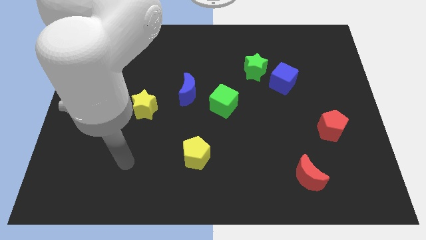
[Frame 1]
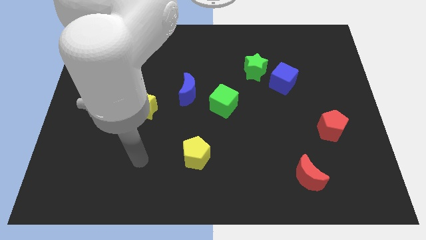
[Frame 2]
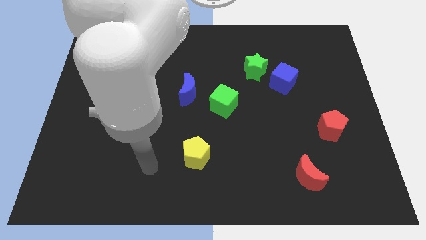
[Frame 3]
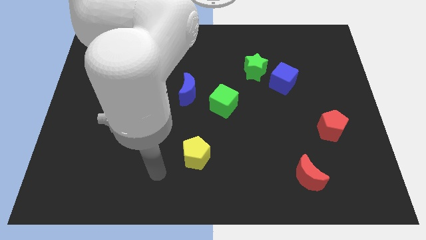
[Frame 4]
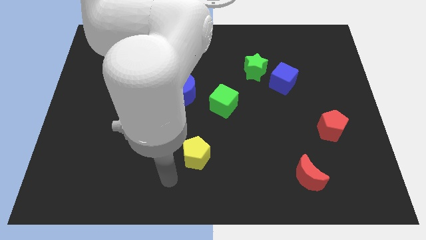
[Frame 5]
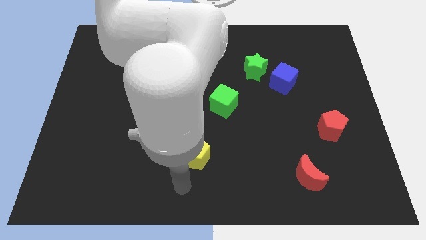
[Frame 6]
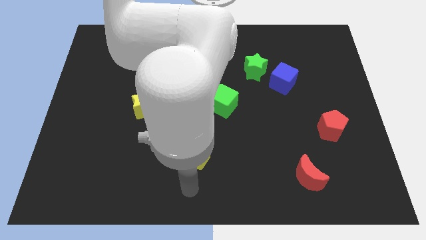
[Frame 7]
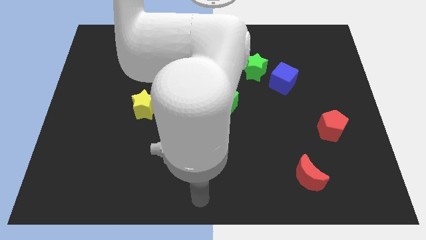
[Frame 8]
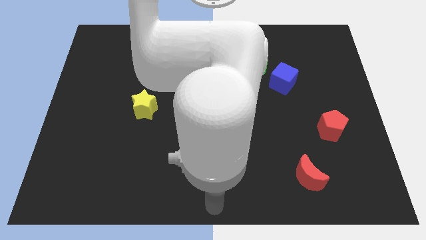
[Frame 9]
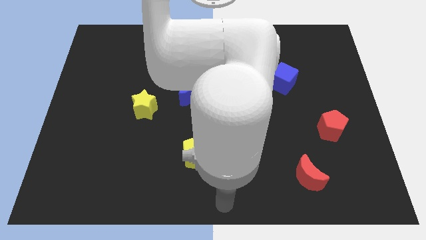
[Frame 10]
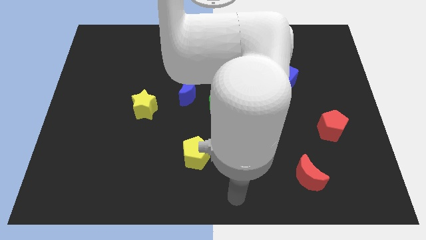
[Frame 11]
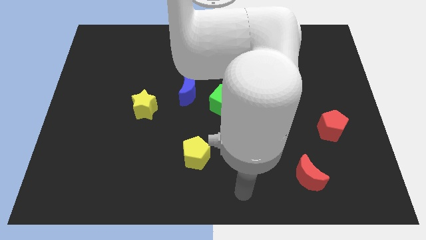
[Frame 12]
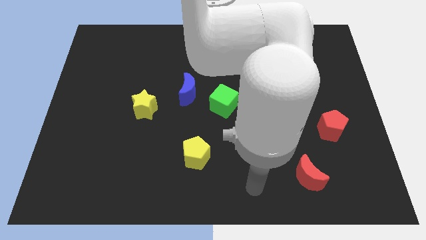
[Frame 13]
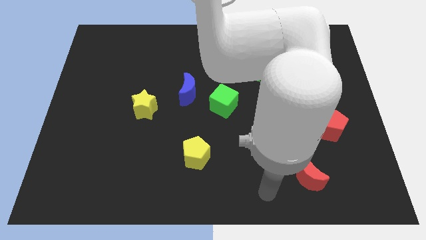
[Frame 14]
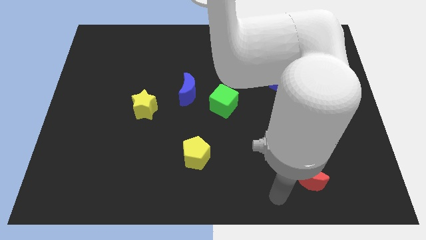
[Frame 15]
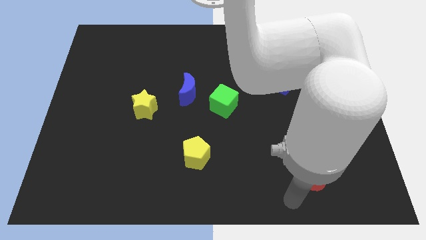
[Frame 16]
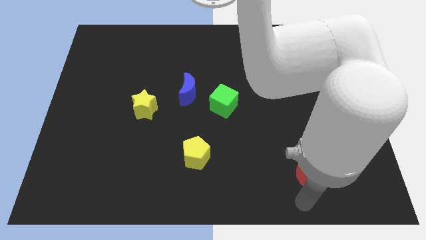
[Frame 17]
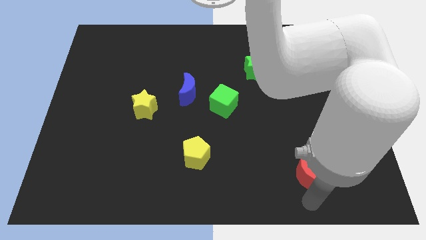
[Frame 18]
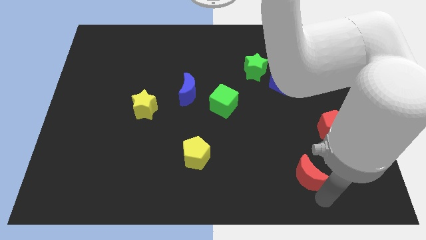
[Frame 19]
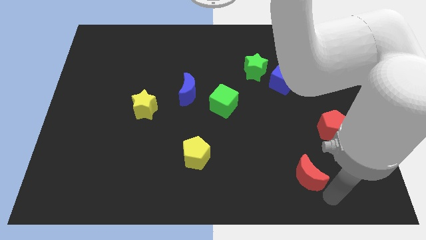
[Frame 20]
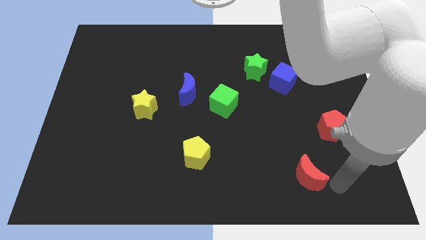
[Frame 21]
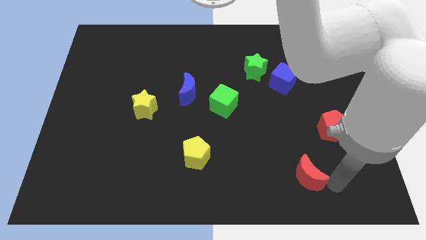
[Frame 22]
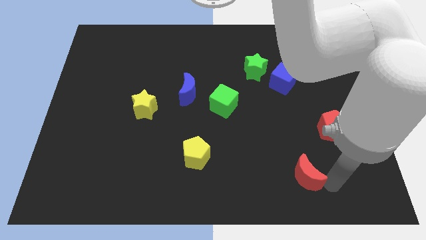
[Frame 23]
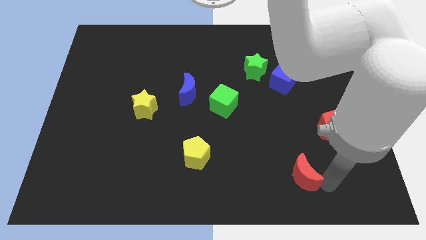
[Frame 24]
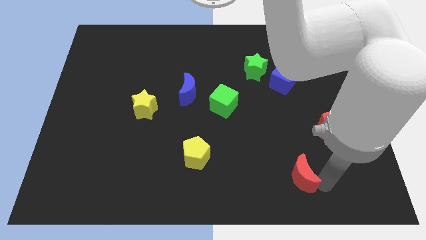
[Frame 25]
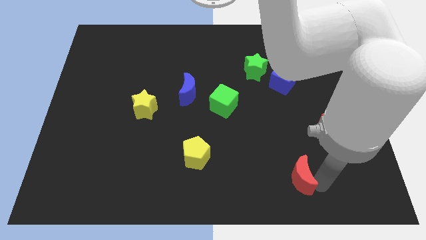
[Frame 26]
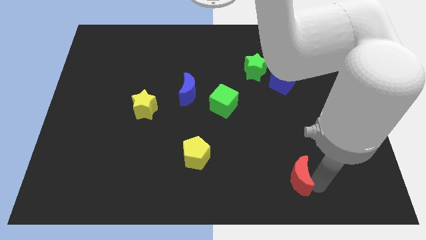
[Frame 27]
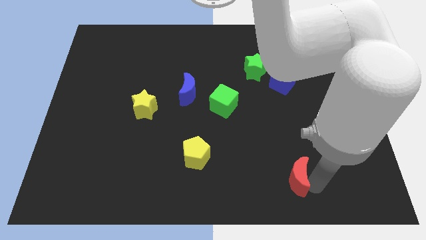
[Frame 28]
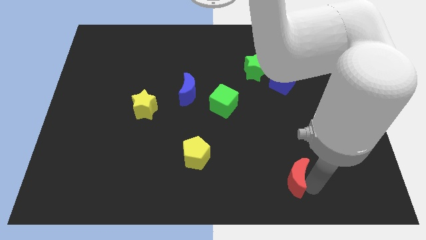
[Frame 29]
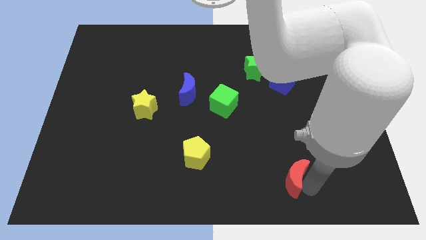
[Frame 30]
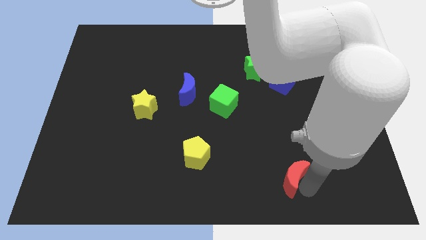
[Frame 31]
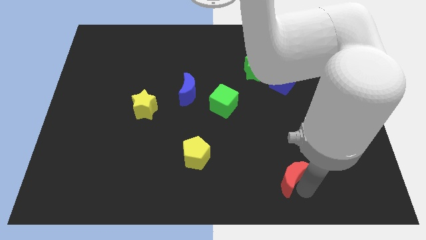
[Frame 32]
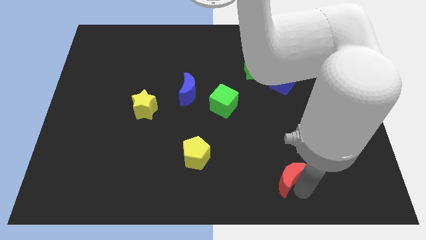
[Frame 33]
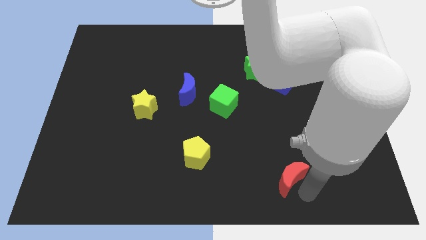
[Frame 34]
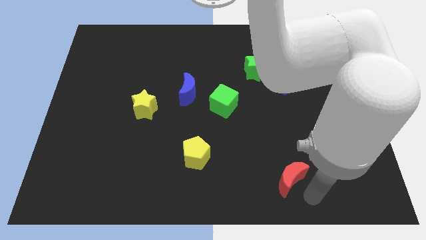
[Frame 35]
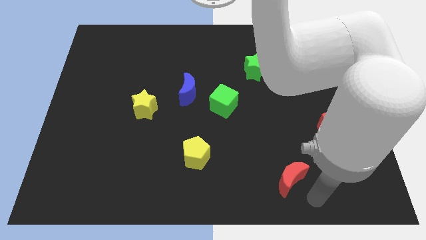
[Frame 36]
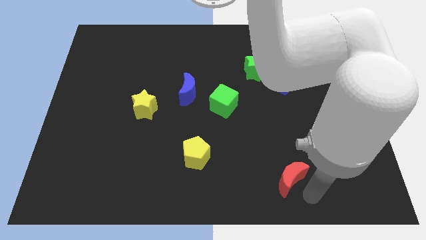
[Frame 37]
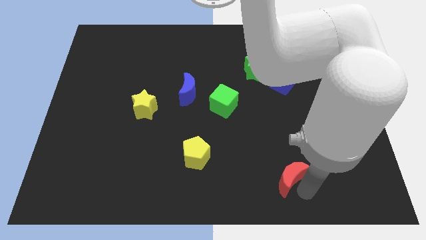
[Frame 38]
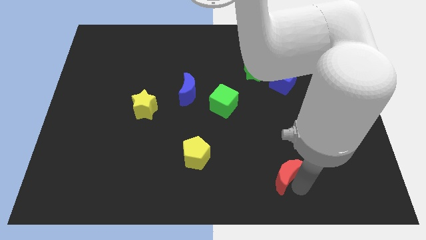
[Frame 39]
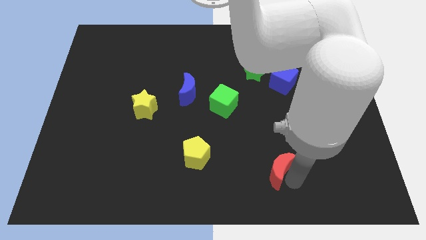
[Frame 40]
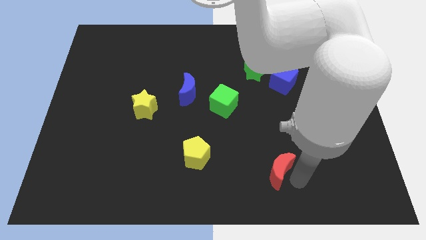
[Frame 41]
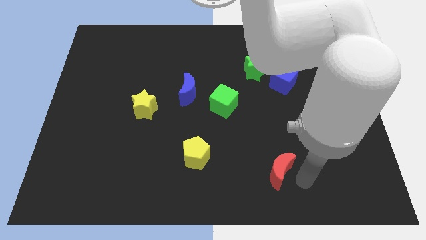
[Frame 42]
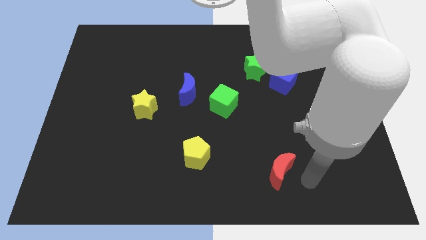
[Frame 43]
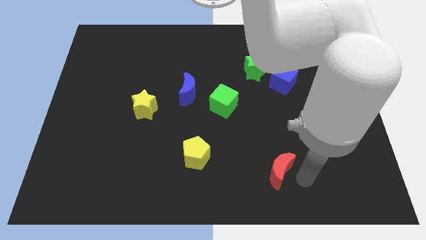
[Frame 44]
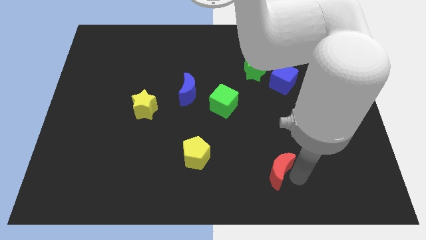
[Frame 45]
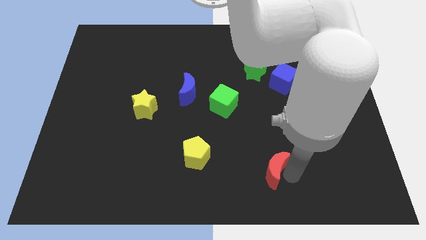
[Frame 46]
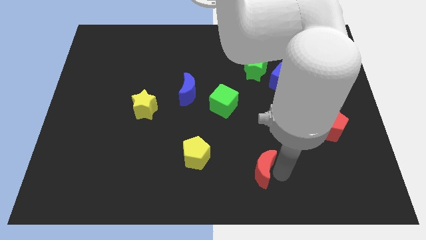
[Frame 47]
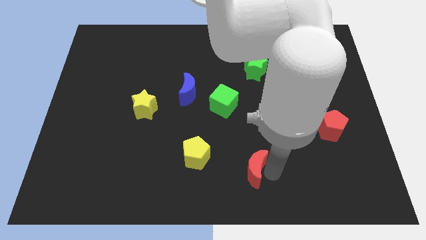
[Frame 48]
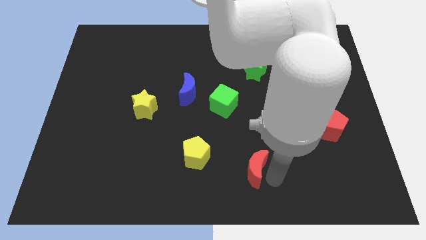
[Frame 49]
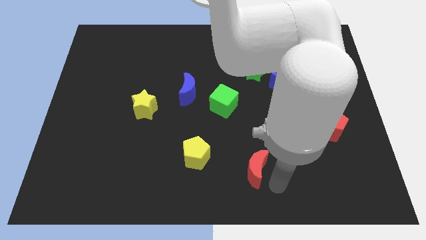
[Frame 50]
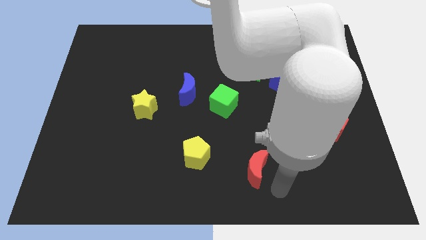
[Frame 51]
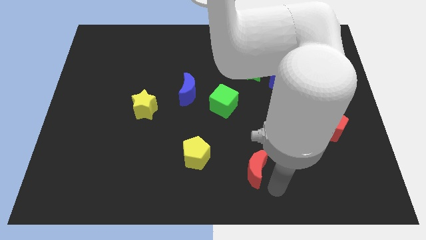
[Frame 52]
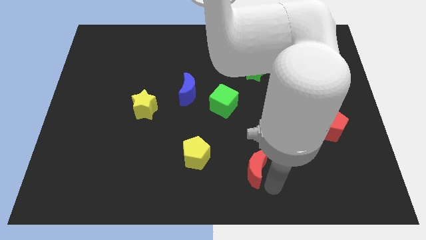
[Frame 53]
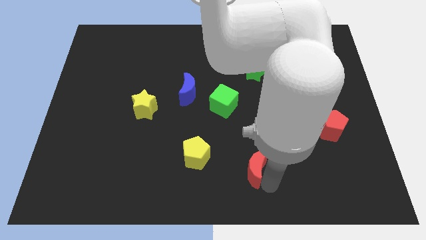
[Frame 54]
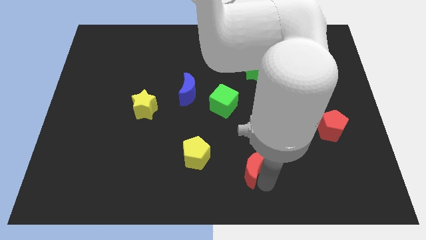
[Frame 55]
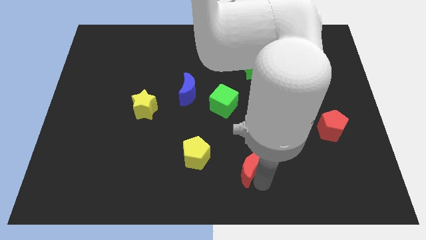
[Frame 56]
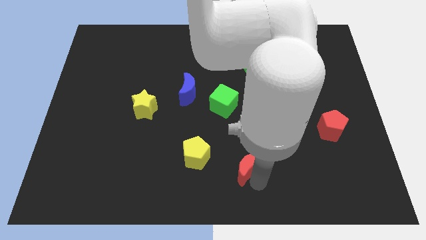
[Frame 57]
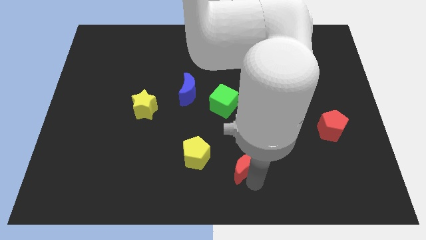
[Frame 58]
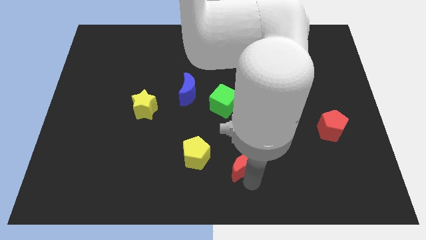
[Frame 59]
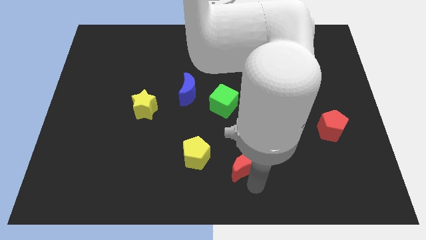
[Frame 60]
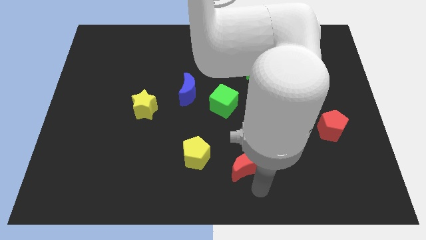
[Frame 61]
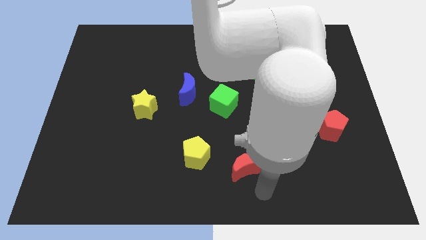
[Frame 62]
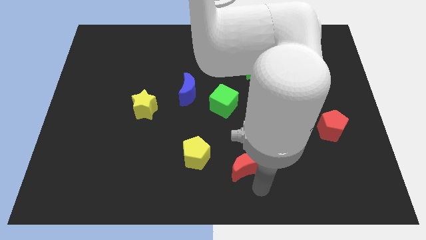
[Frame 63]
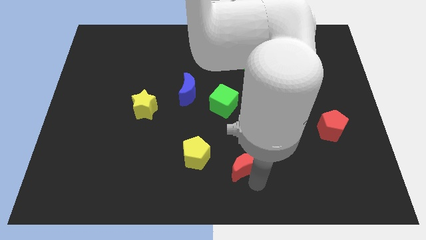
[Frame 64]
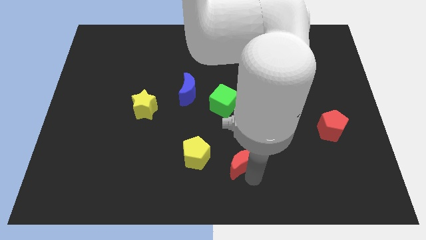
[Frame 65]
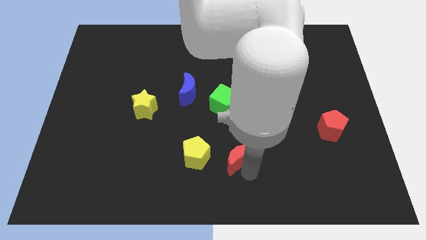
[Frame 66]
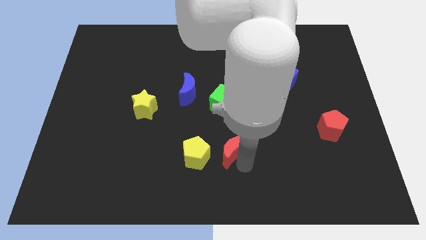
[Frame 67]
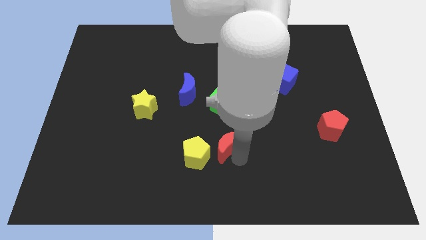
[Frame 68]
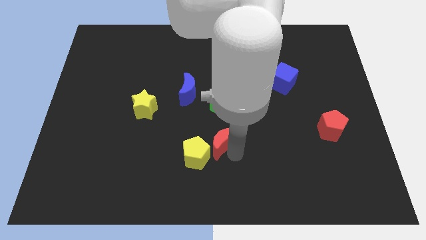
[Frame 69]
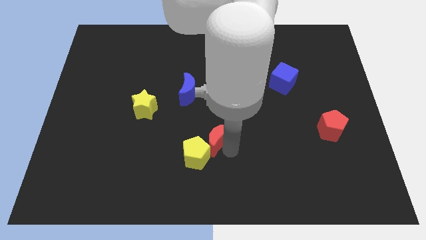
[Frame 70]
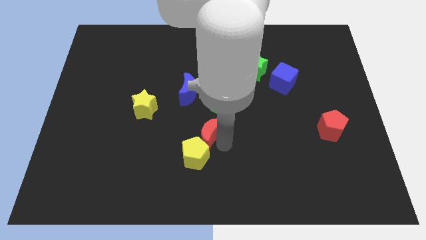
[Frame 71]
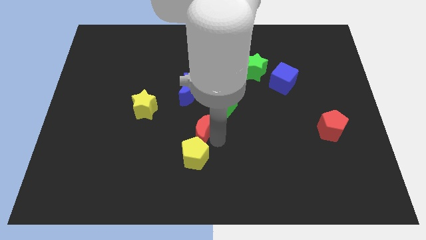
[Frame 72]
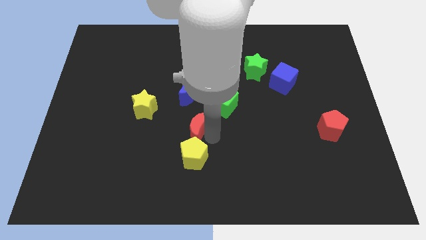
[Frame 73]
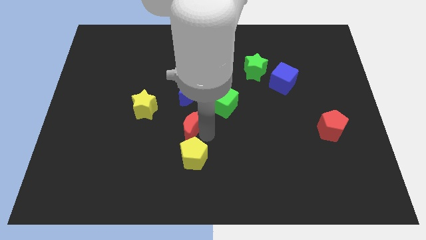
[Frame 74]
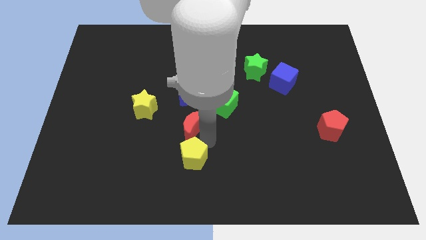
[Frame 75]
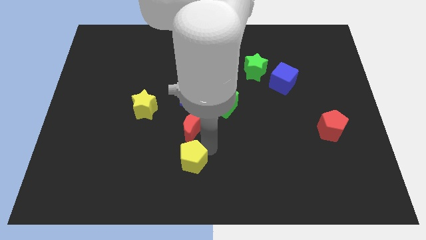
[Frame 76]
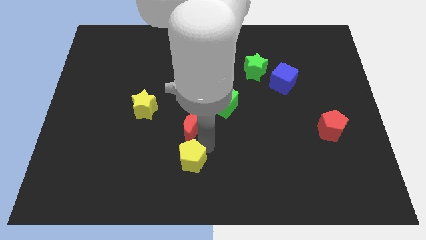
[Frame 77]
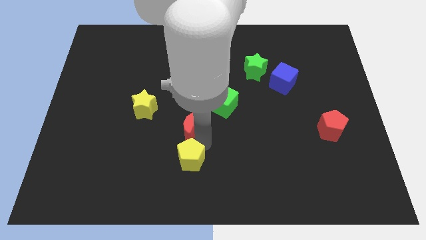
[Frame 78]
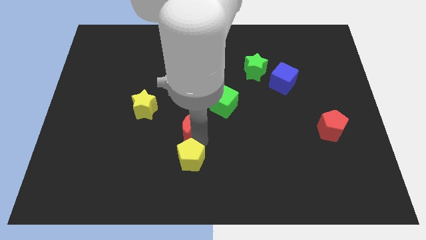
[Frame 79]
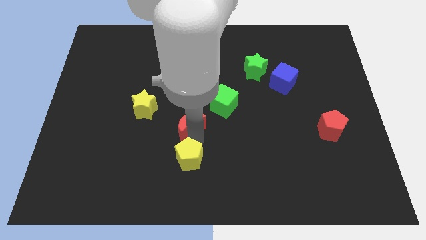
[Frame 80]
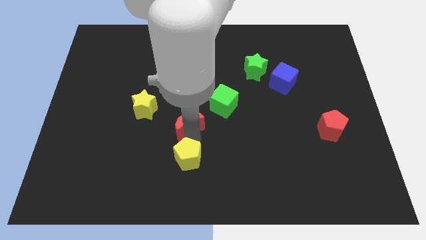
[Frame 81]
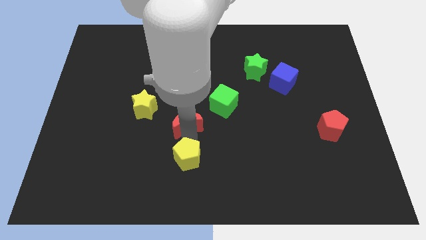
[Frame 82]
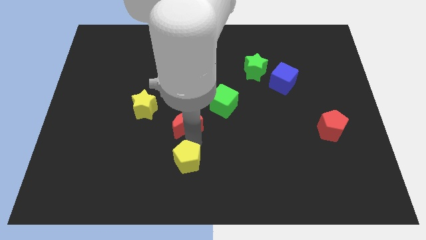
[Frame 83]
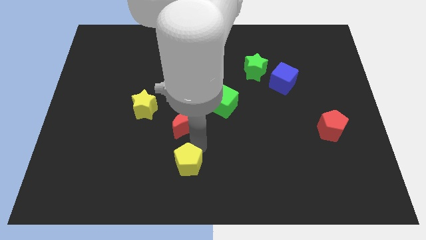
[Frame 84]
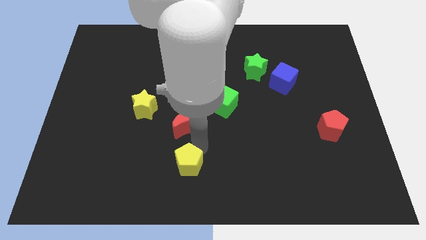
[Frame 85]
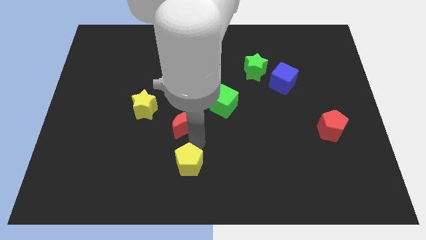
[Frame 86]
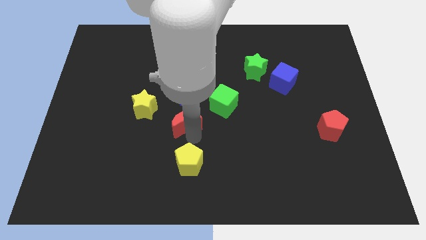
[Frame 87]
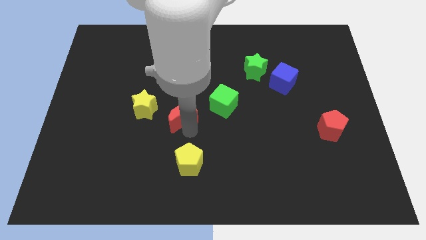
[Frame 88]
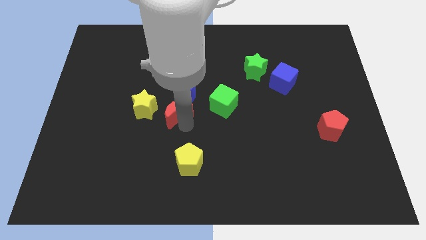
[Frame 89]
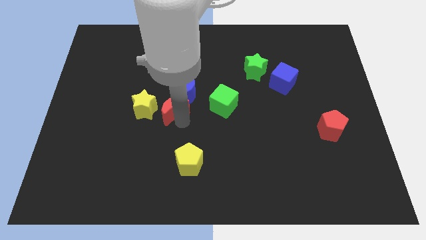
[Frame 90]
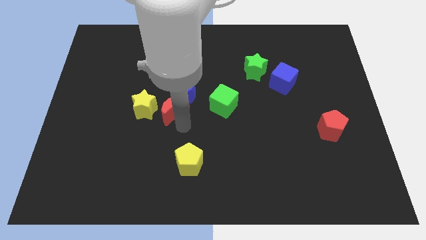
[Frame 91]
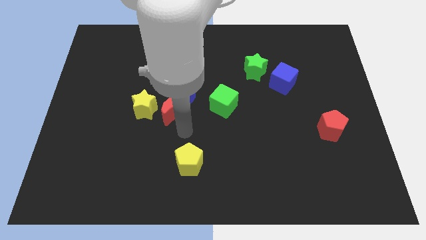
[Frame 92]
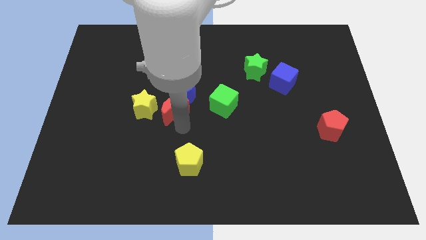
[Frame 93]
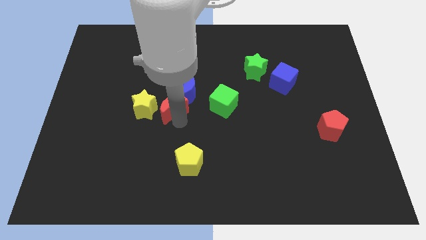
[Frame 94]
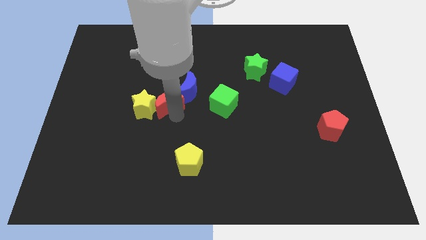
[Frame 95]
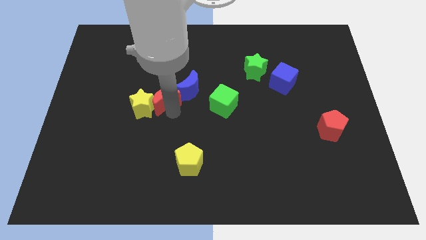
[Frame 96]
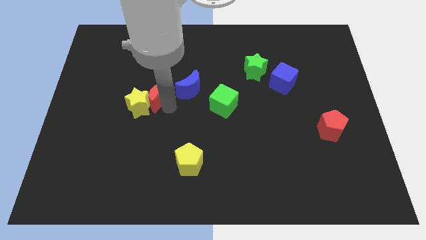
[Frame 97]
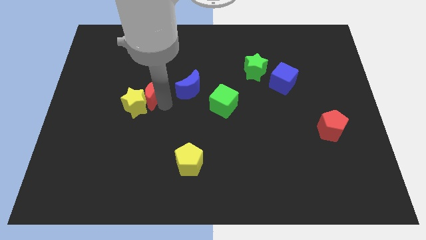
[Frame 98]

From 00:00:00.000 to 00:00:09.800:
push the red moon above the yellow star
